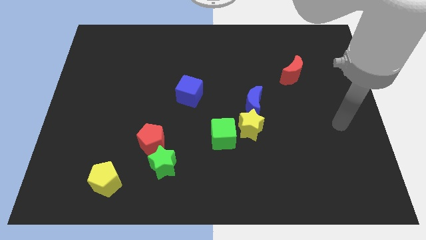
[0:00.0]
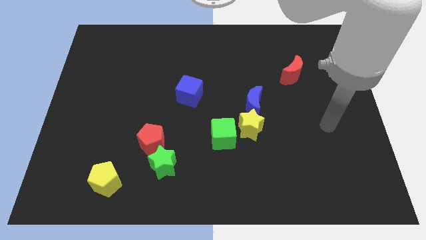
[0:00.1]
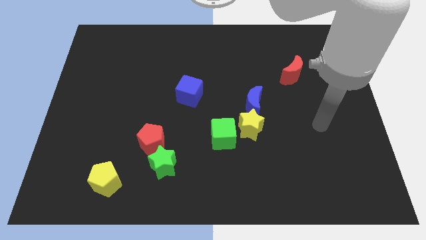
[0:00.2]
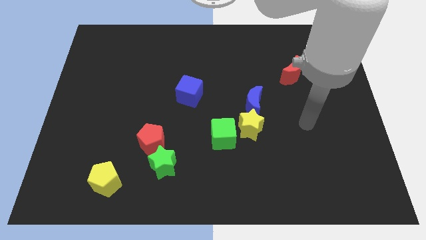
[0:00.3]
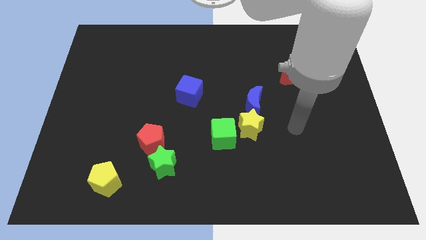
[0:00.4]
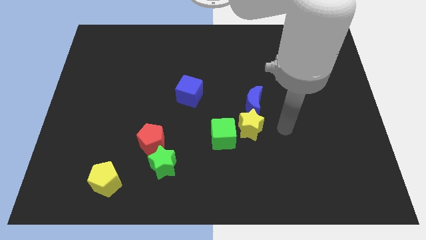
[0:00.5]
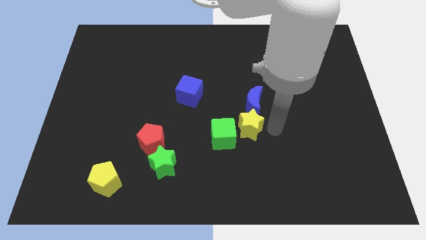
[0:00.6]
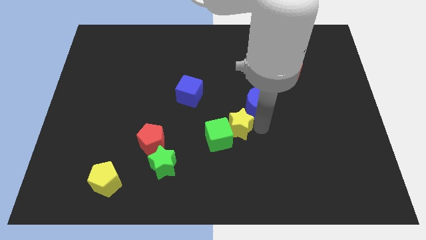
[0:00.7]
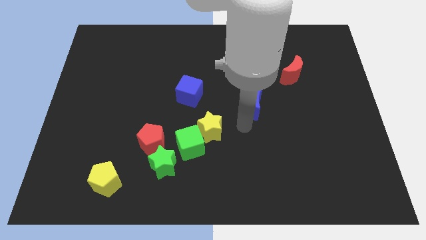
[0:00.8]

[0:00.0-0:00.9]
separate the blue moon from the yellow star

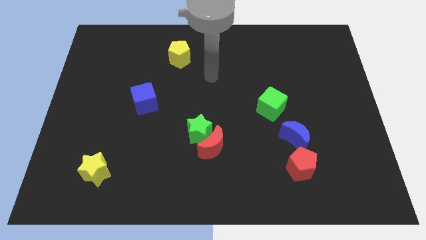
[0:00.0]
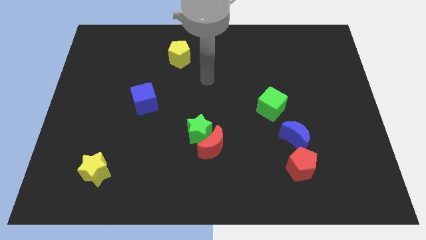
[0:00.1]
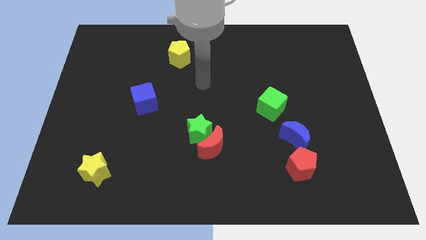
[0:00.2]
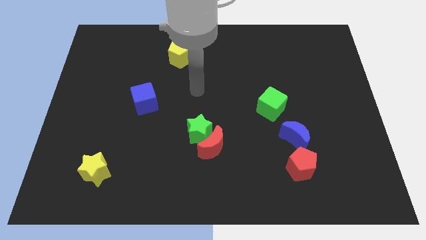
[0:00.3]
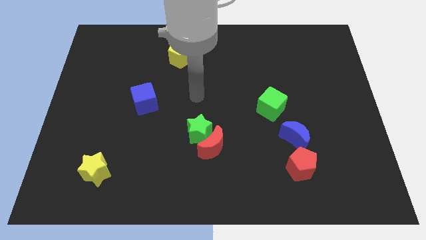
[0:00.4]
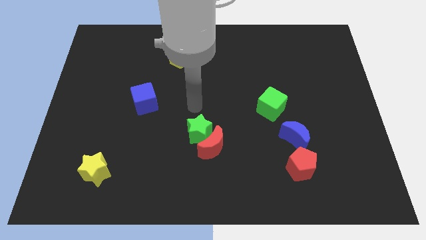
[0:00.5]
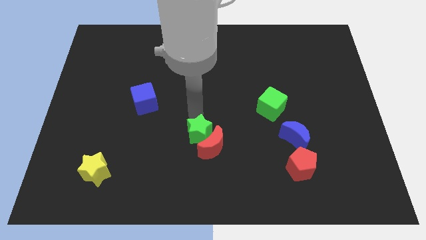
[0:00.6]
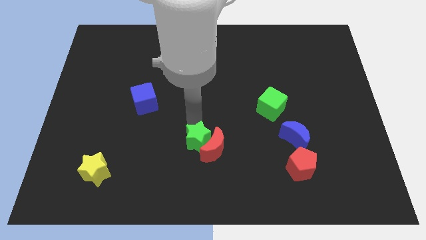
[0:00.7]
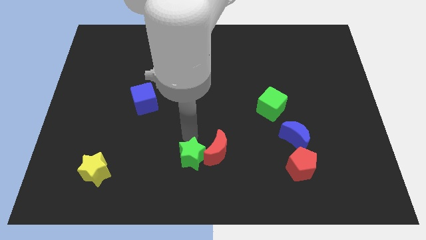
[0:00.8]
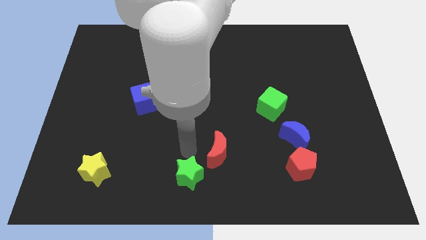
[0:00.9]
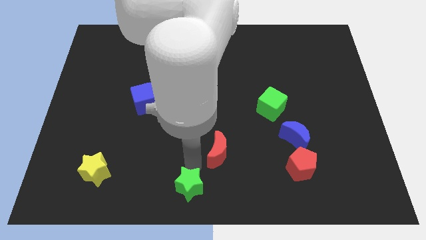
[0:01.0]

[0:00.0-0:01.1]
separate the red moon from the green star

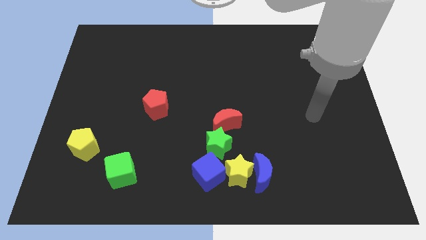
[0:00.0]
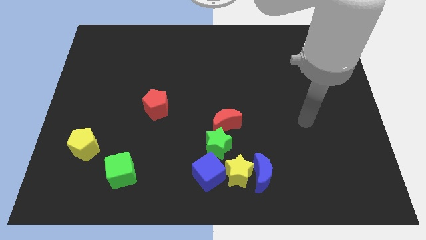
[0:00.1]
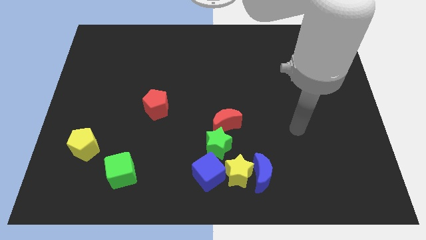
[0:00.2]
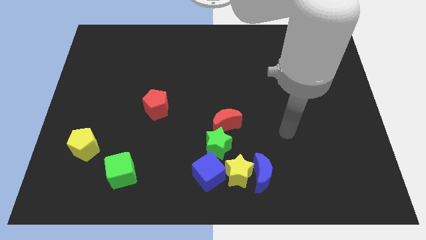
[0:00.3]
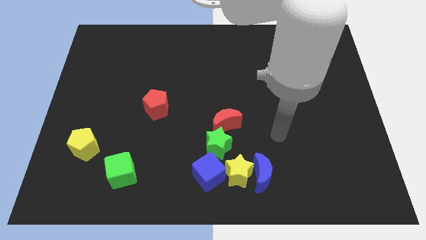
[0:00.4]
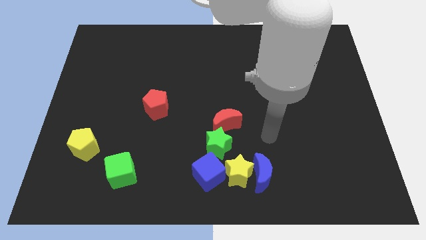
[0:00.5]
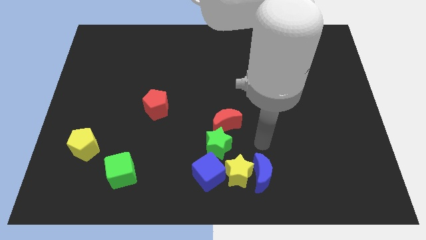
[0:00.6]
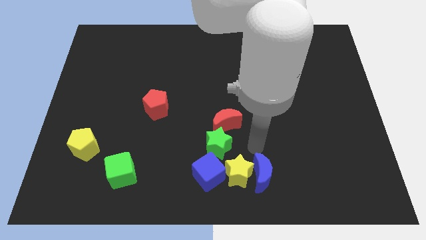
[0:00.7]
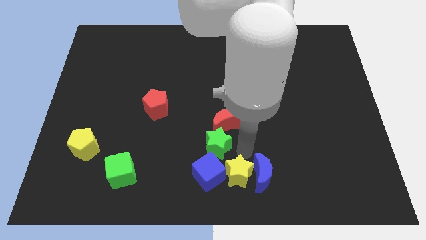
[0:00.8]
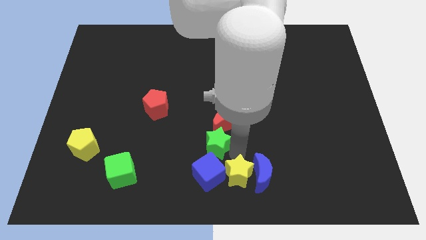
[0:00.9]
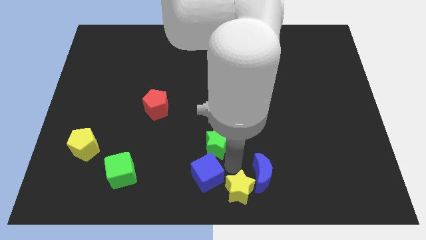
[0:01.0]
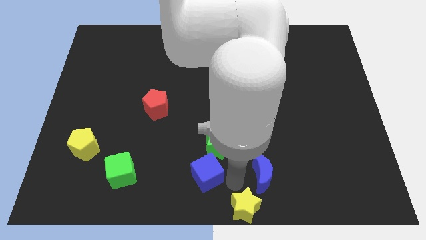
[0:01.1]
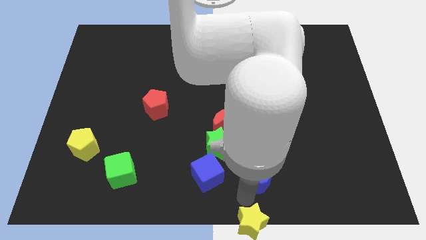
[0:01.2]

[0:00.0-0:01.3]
move the blue moon away from the yellow star

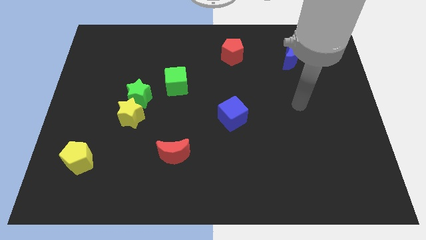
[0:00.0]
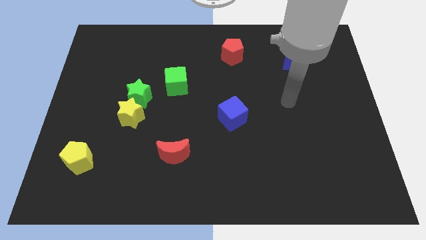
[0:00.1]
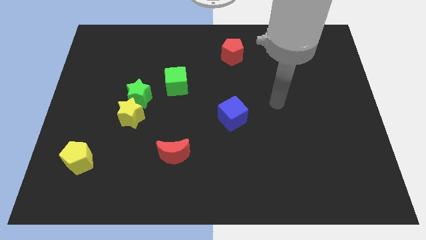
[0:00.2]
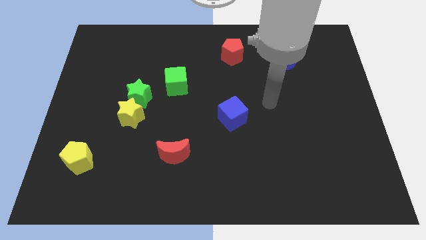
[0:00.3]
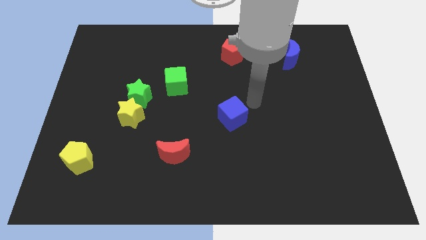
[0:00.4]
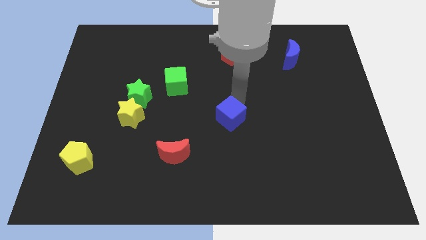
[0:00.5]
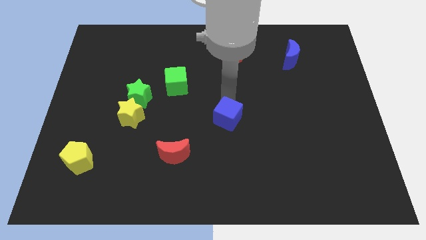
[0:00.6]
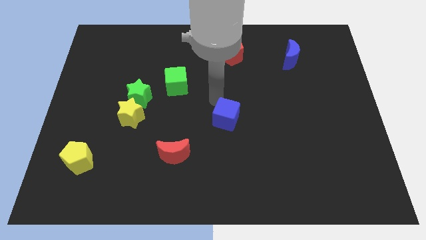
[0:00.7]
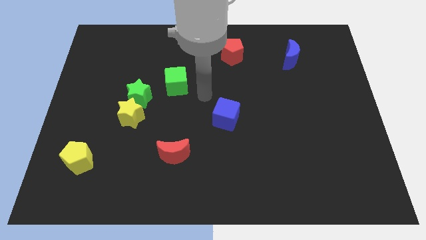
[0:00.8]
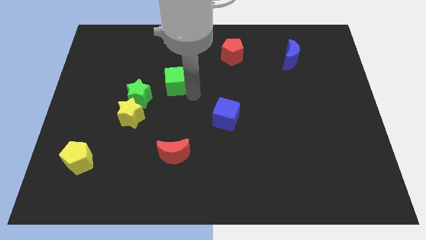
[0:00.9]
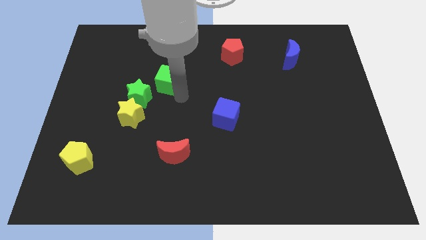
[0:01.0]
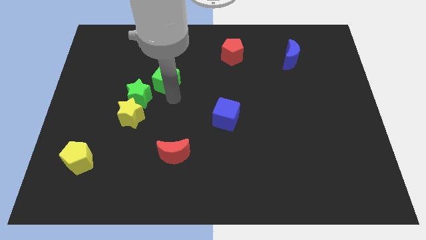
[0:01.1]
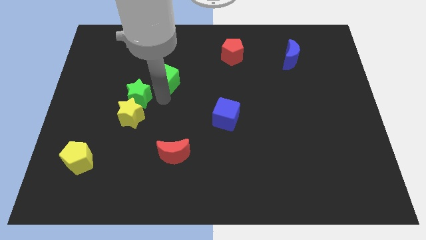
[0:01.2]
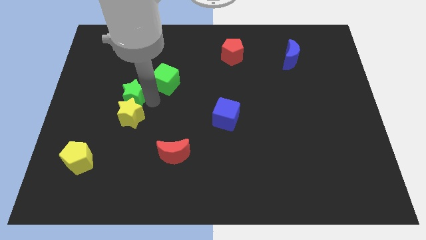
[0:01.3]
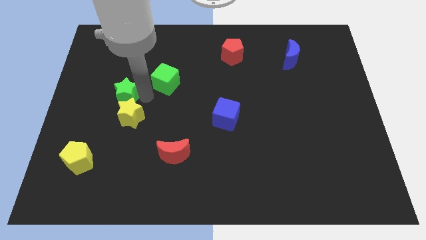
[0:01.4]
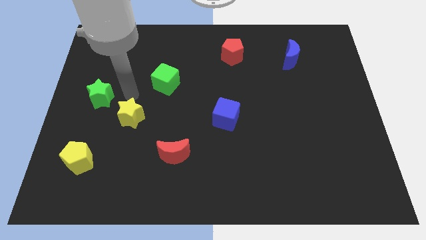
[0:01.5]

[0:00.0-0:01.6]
separate the yellow star from the green star

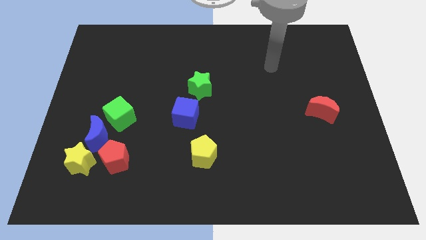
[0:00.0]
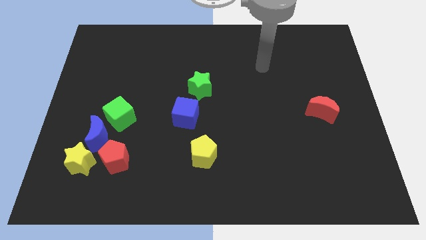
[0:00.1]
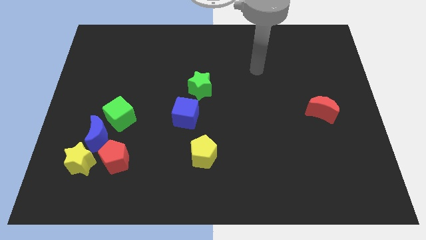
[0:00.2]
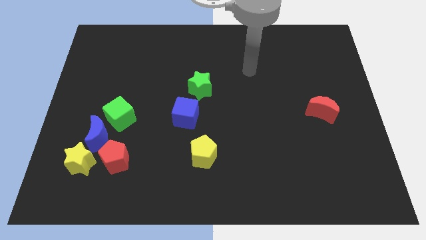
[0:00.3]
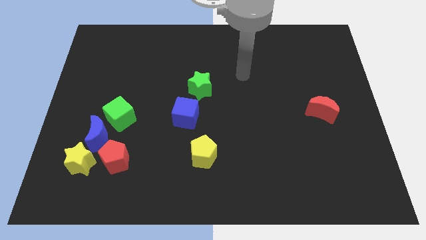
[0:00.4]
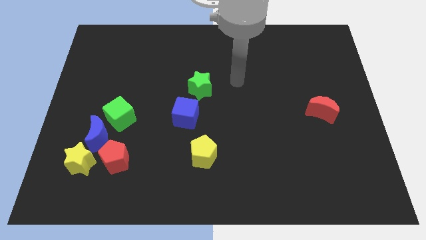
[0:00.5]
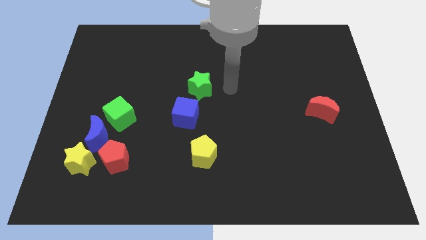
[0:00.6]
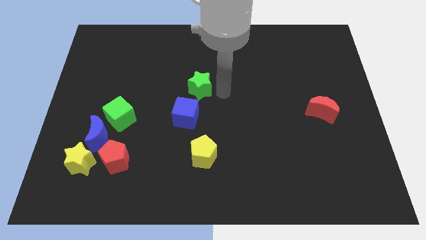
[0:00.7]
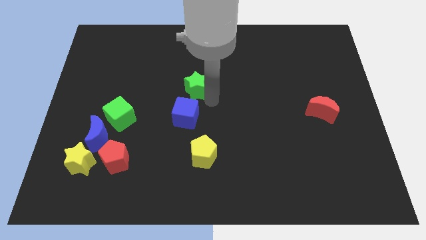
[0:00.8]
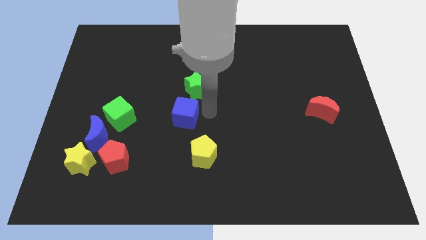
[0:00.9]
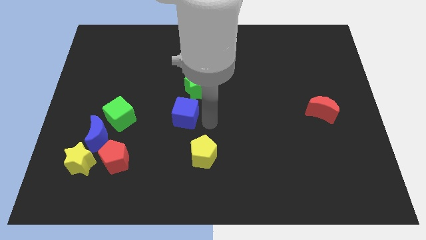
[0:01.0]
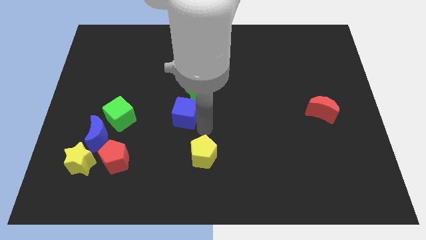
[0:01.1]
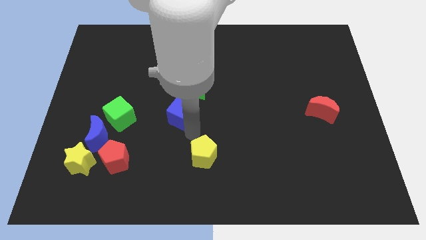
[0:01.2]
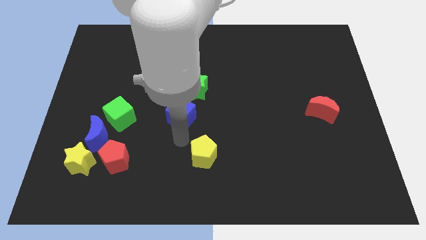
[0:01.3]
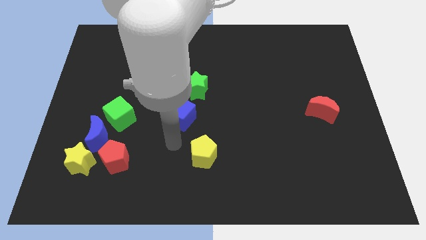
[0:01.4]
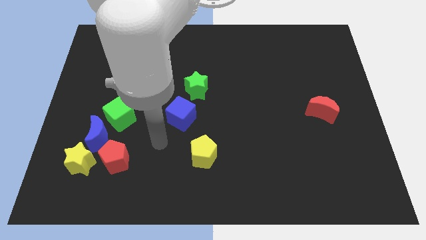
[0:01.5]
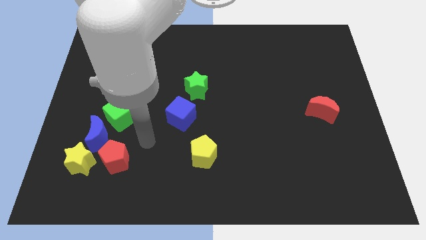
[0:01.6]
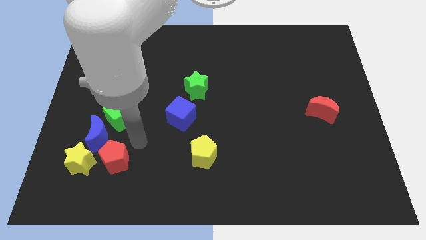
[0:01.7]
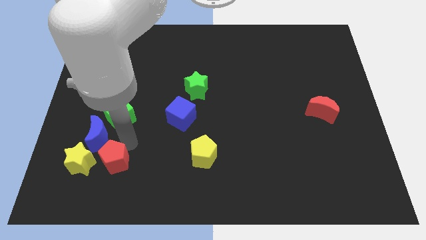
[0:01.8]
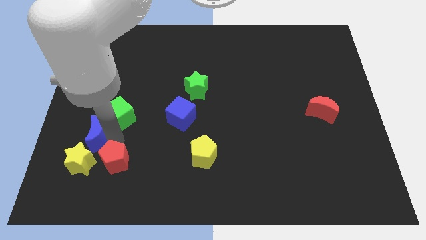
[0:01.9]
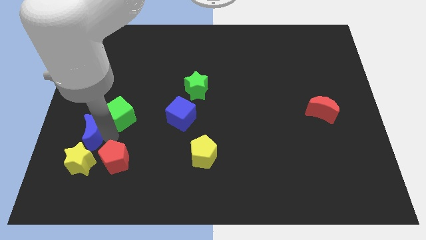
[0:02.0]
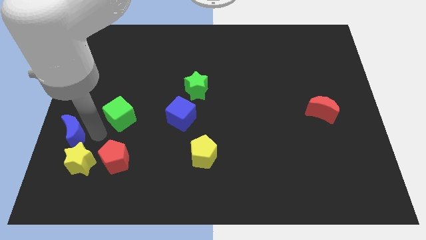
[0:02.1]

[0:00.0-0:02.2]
separate the green cube from the blue moon

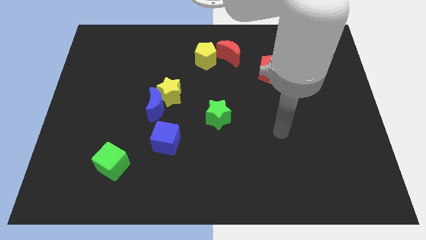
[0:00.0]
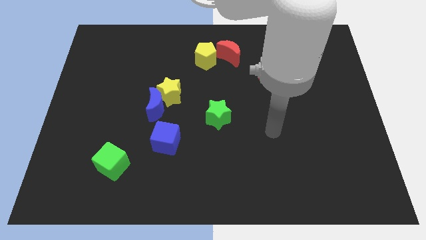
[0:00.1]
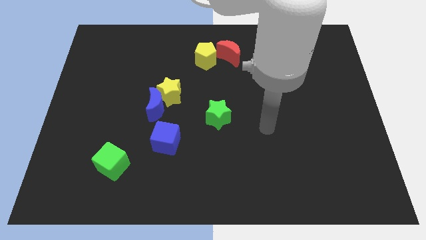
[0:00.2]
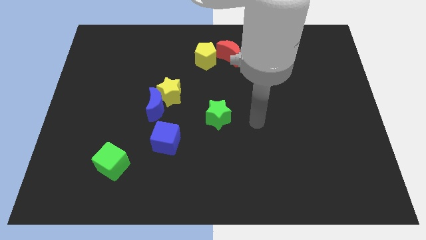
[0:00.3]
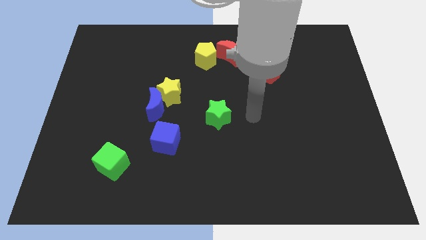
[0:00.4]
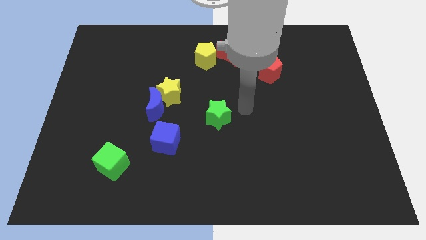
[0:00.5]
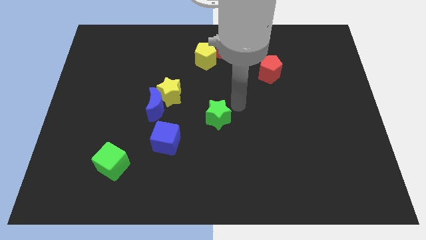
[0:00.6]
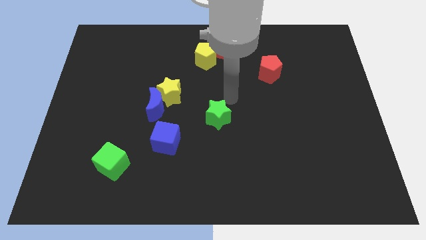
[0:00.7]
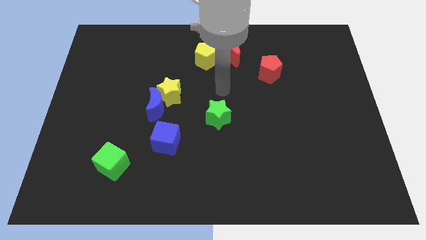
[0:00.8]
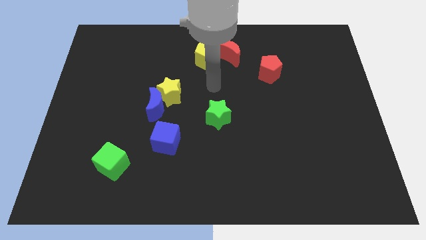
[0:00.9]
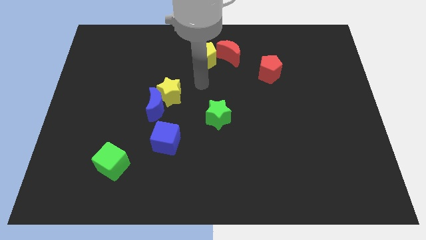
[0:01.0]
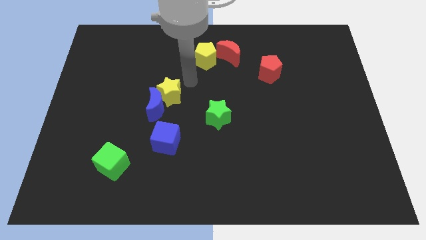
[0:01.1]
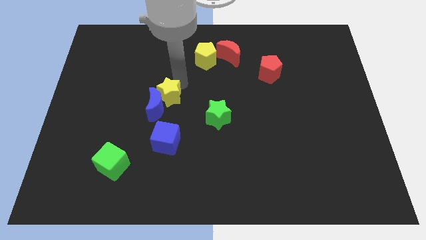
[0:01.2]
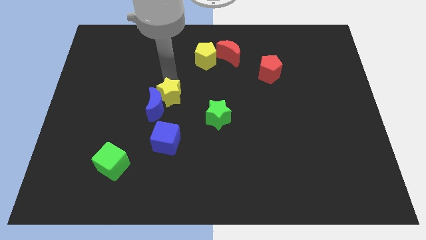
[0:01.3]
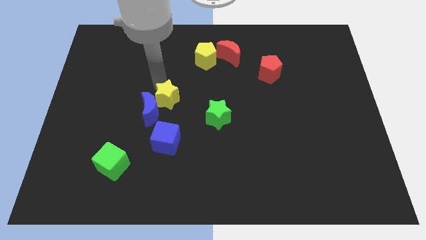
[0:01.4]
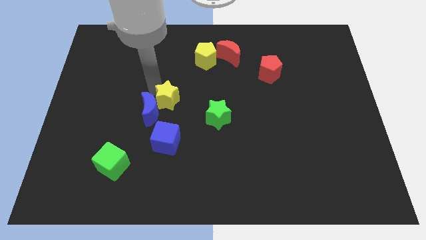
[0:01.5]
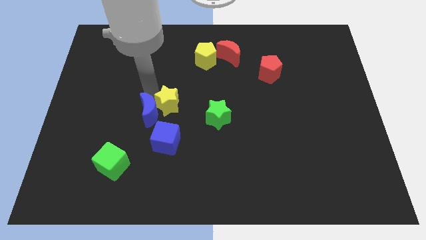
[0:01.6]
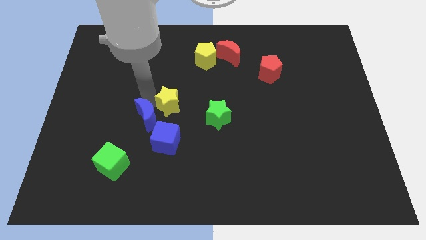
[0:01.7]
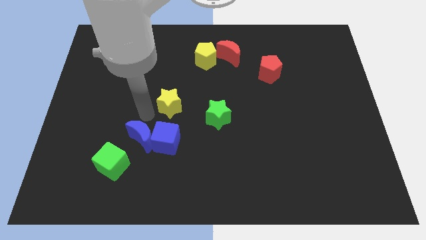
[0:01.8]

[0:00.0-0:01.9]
pull the yellow star apart from the blue moon

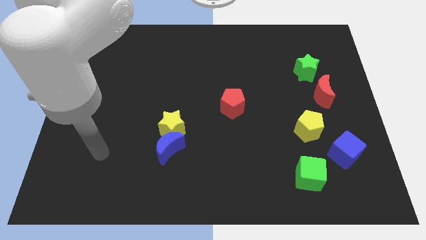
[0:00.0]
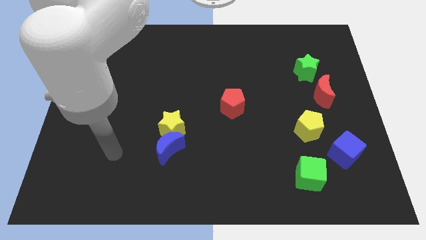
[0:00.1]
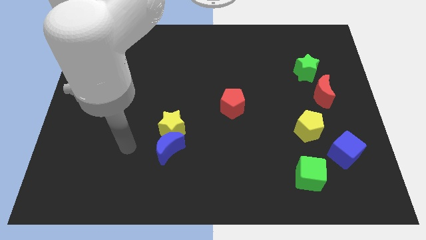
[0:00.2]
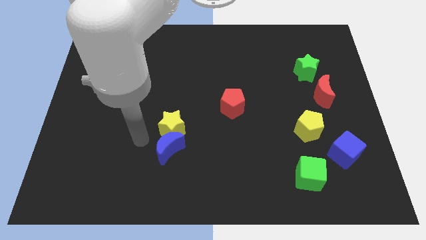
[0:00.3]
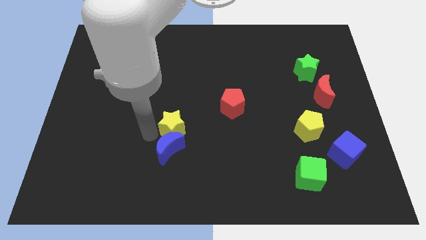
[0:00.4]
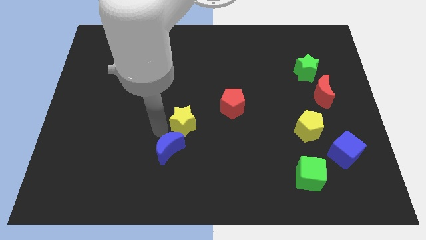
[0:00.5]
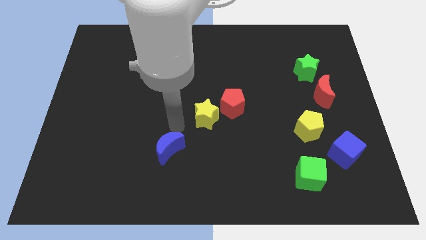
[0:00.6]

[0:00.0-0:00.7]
pull the blue moon apart from the yellow star
